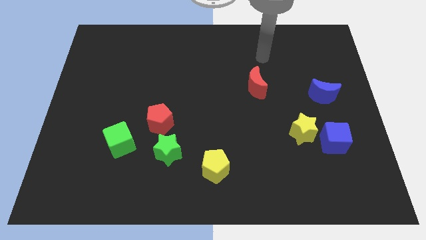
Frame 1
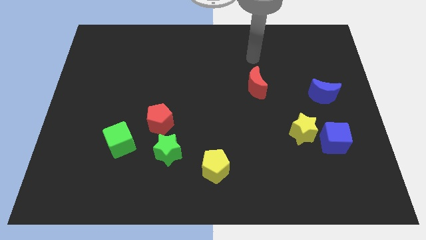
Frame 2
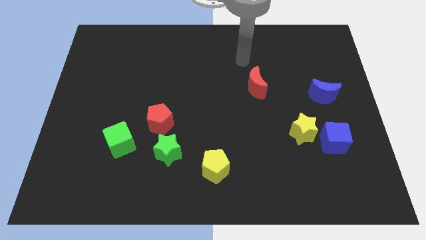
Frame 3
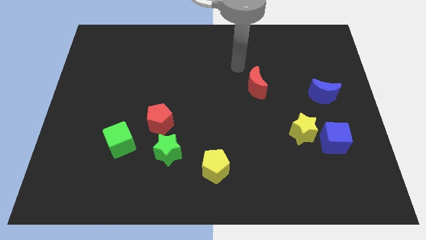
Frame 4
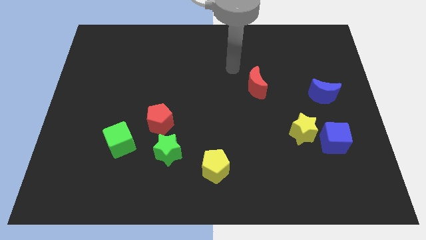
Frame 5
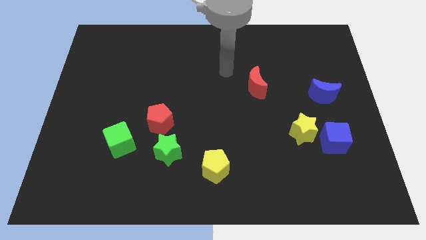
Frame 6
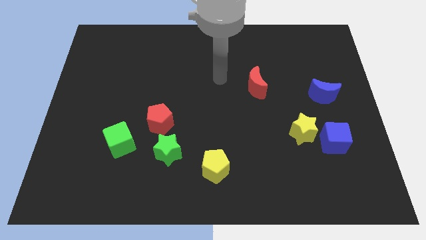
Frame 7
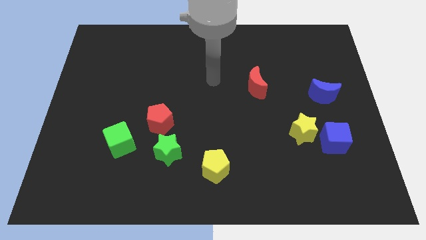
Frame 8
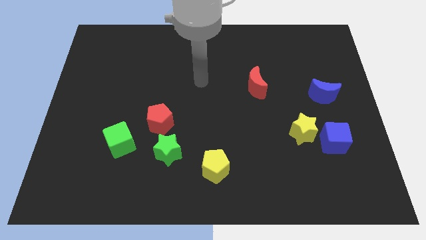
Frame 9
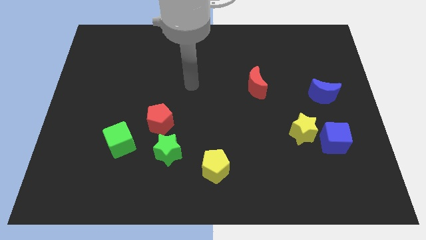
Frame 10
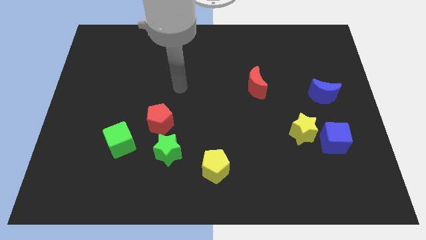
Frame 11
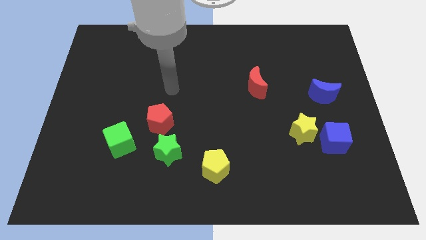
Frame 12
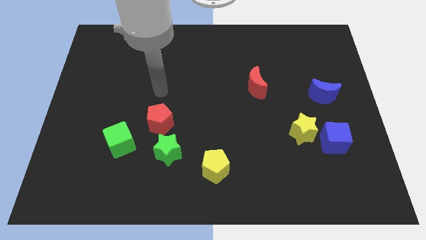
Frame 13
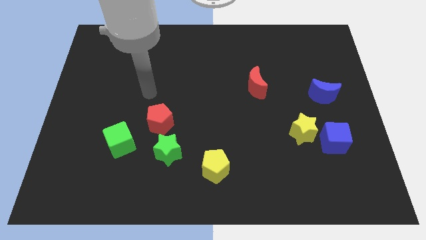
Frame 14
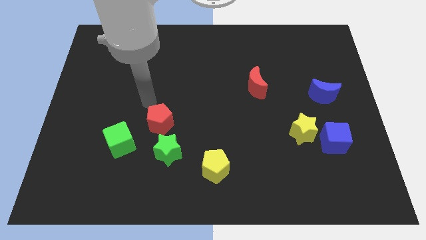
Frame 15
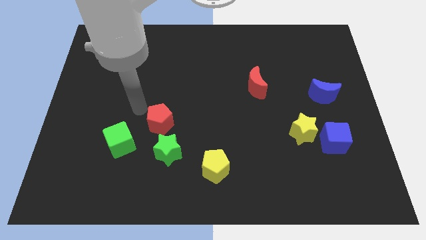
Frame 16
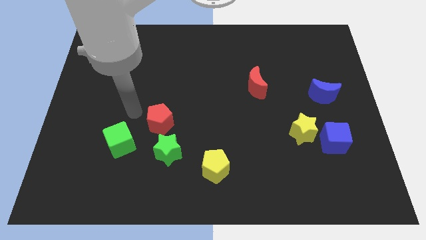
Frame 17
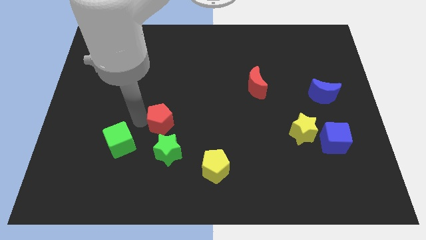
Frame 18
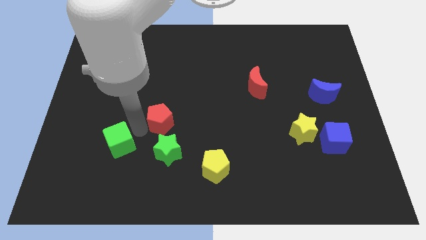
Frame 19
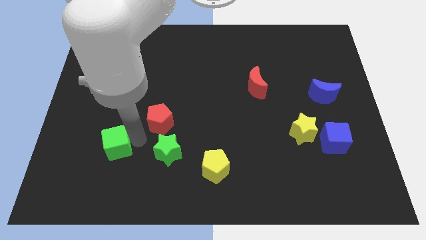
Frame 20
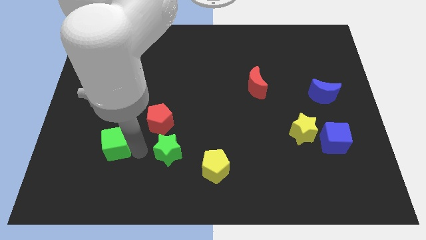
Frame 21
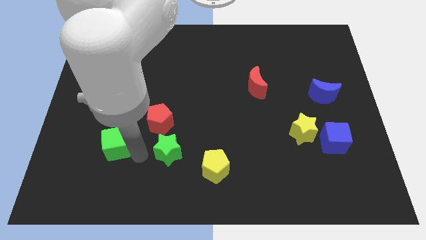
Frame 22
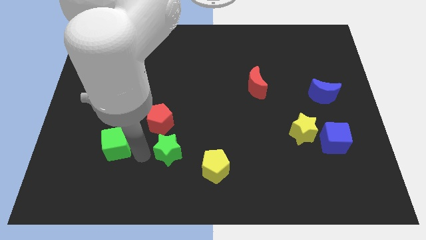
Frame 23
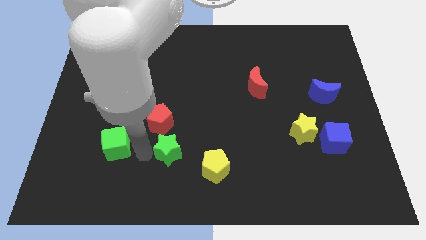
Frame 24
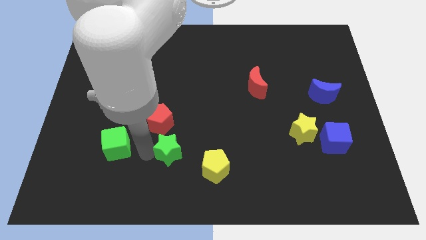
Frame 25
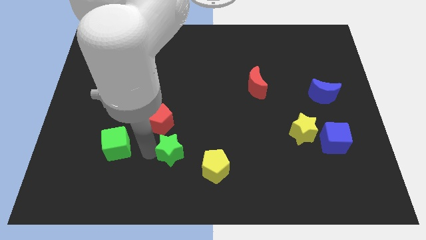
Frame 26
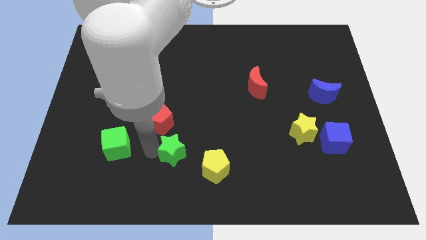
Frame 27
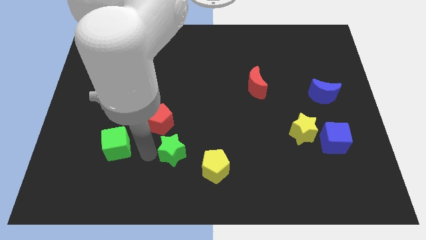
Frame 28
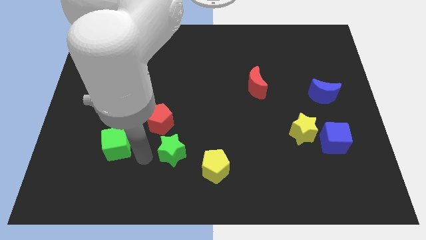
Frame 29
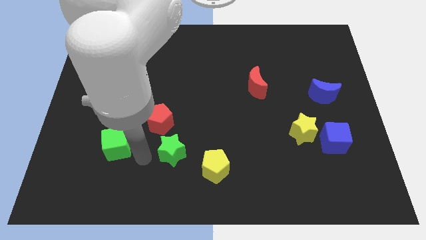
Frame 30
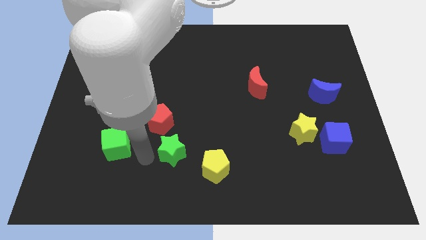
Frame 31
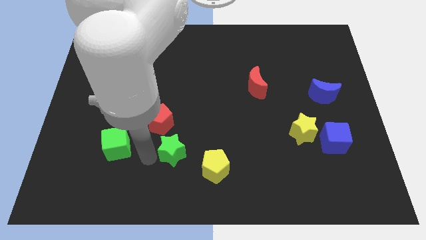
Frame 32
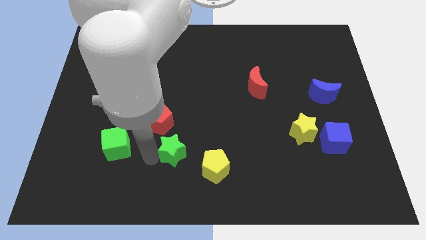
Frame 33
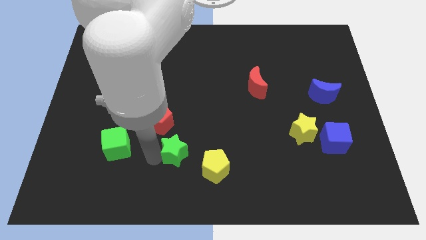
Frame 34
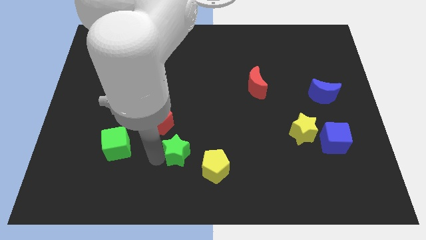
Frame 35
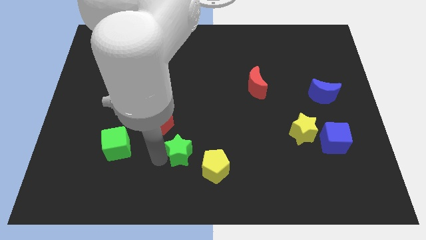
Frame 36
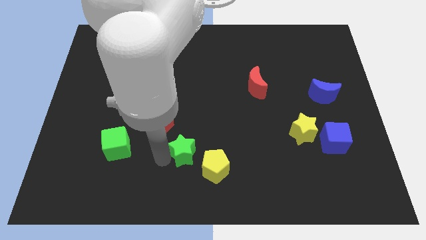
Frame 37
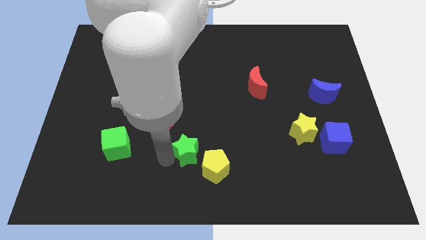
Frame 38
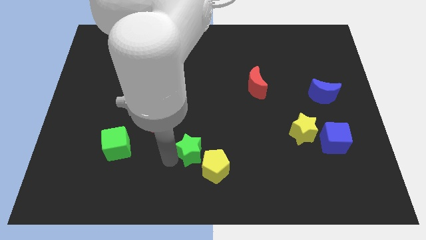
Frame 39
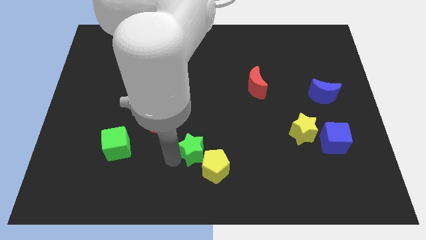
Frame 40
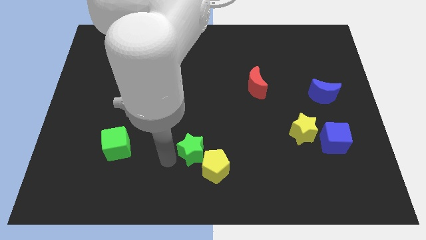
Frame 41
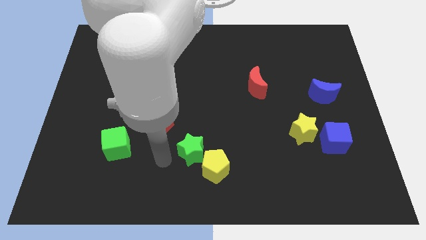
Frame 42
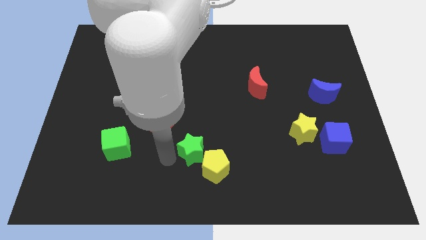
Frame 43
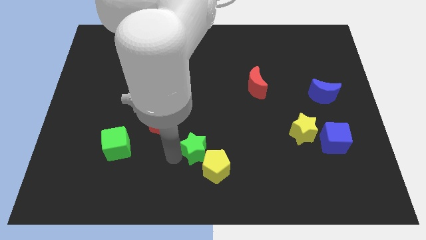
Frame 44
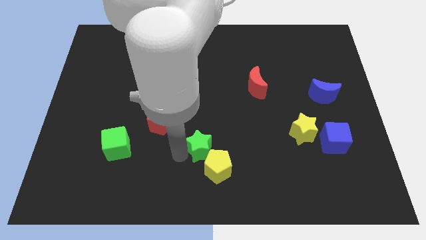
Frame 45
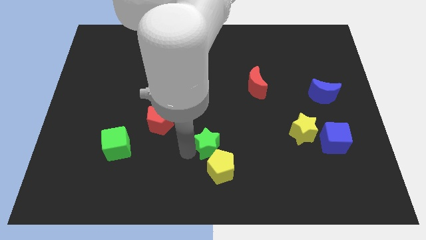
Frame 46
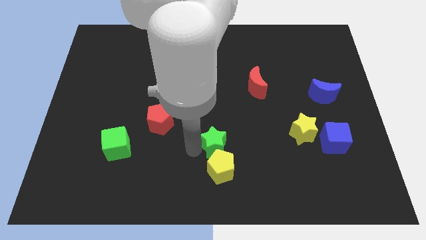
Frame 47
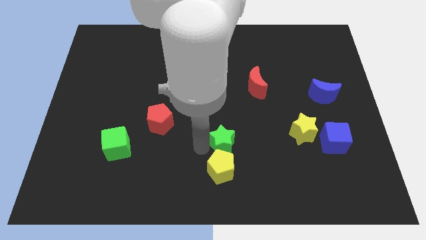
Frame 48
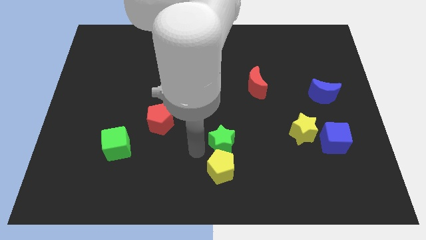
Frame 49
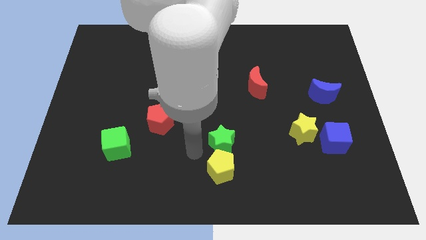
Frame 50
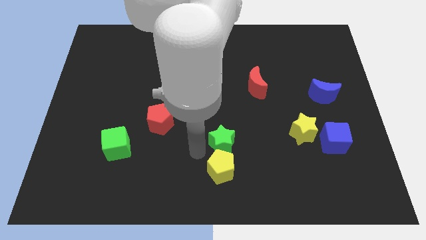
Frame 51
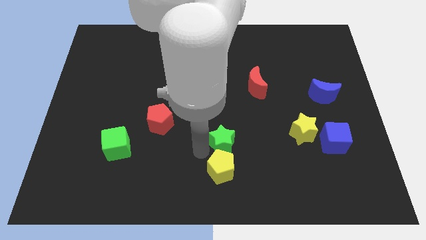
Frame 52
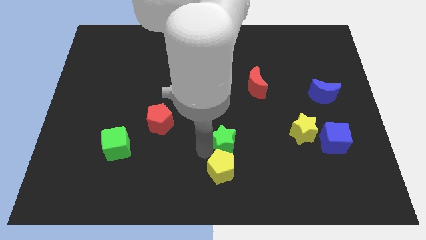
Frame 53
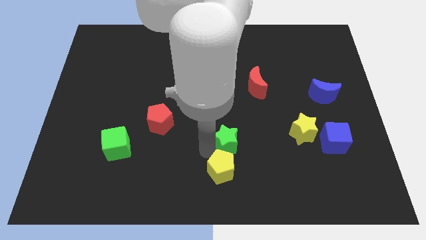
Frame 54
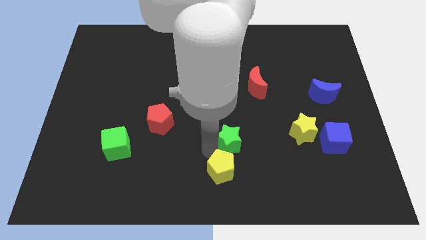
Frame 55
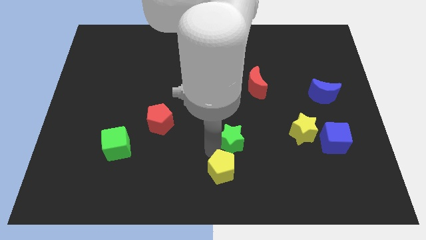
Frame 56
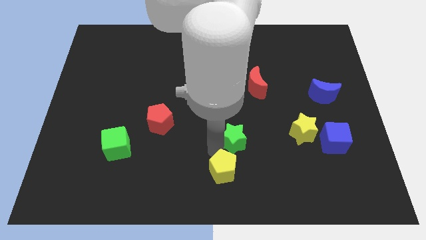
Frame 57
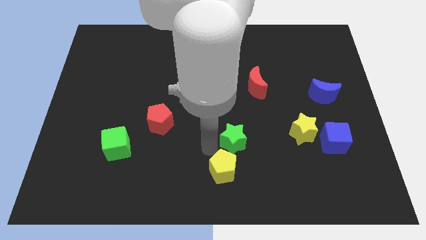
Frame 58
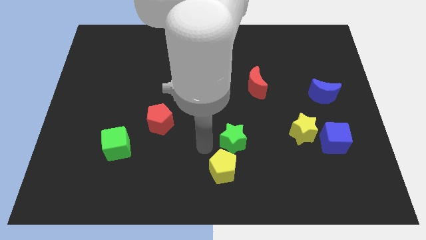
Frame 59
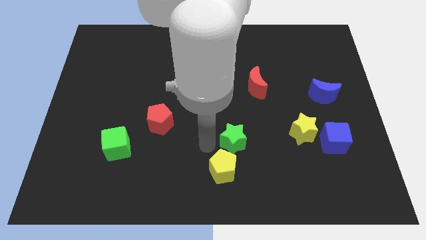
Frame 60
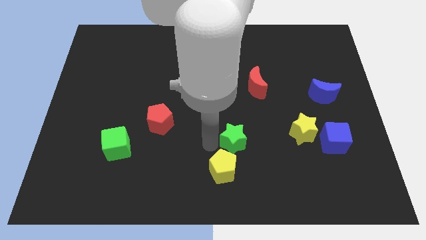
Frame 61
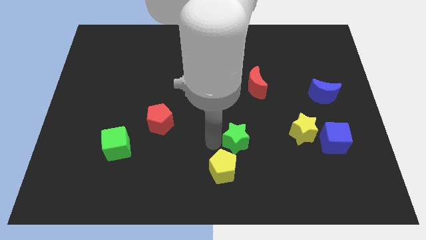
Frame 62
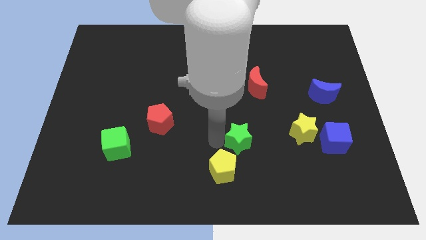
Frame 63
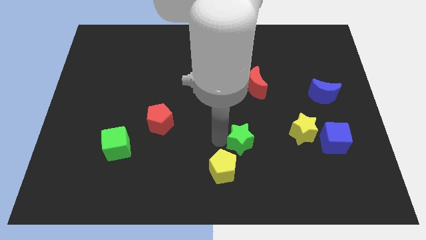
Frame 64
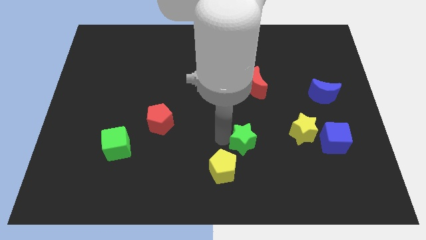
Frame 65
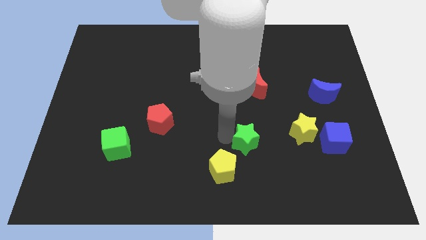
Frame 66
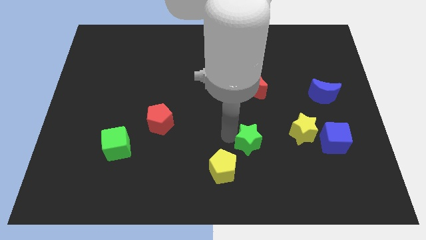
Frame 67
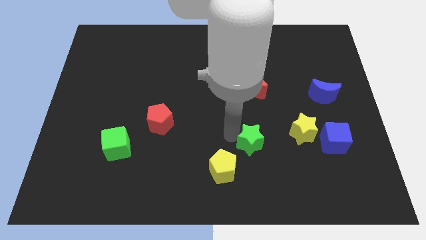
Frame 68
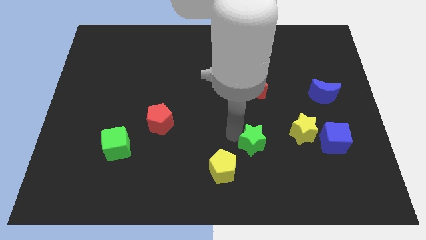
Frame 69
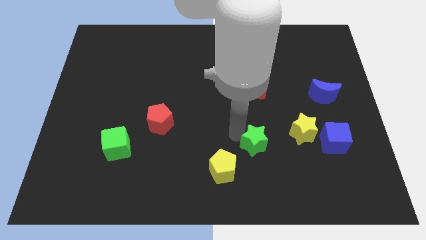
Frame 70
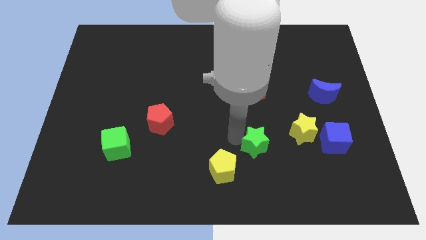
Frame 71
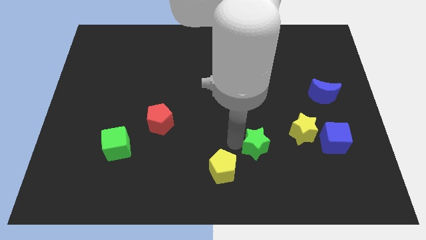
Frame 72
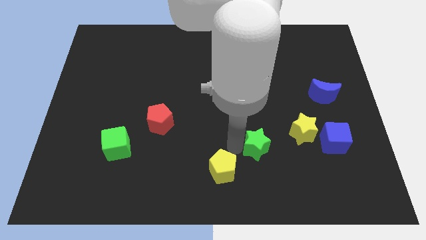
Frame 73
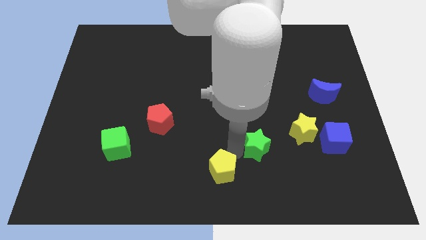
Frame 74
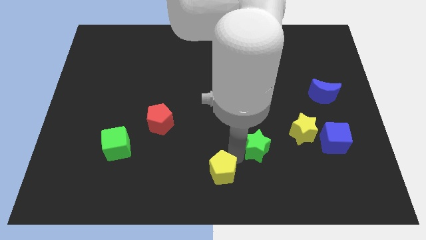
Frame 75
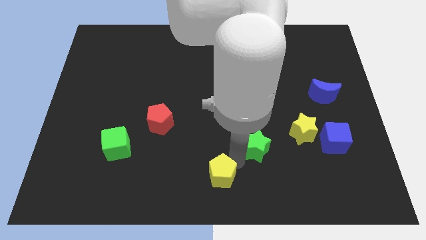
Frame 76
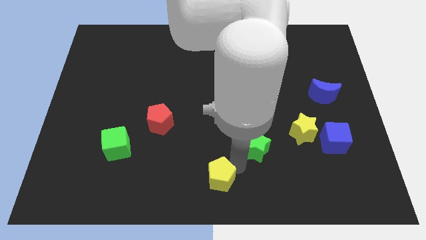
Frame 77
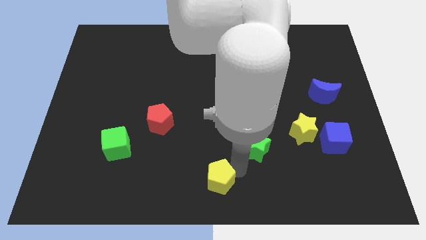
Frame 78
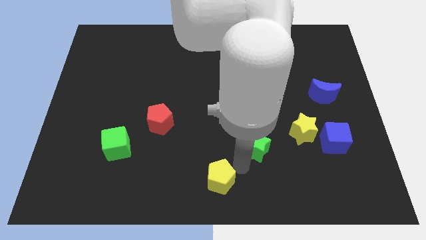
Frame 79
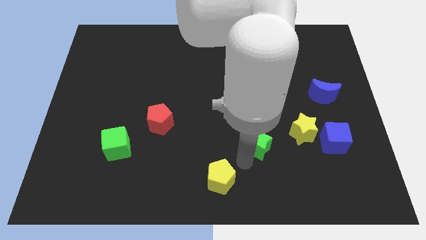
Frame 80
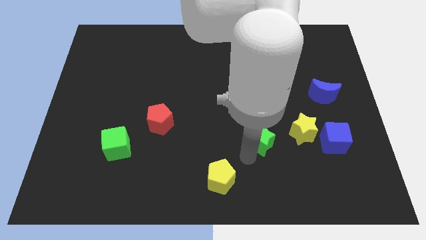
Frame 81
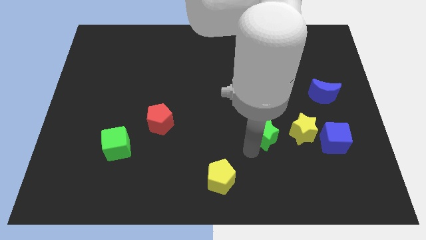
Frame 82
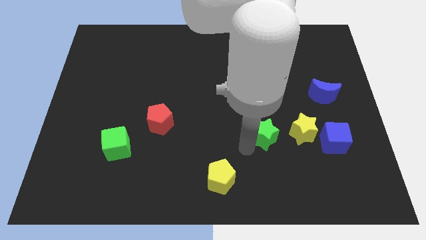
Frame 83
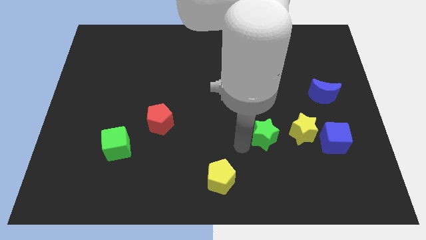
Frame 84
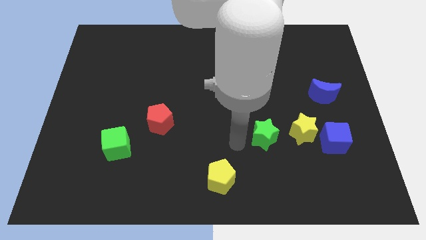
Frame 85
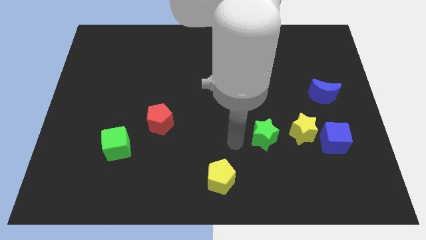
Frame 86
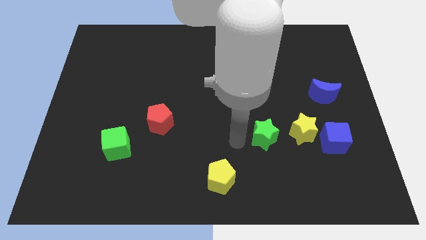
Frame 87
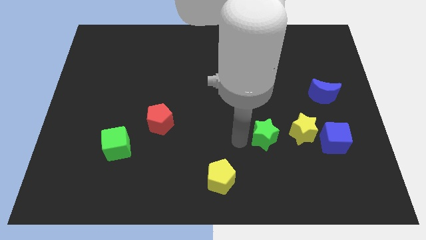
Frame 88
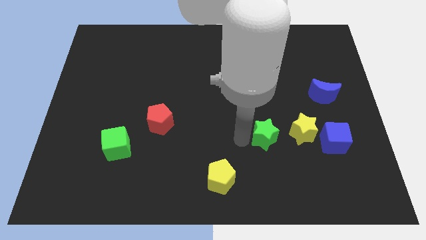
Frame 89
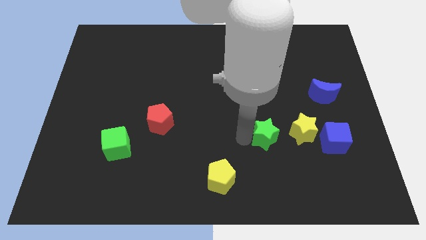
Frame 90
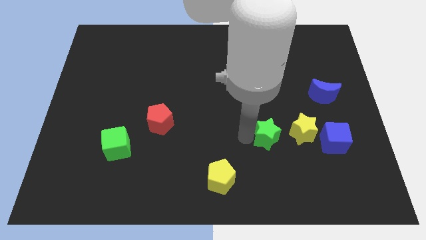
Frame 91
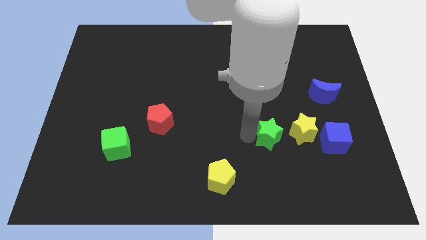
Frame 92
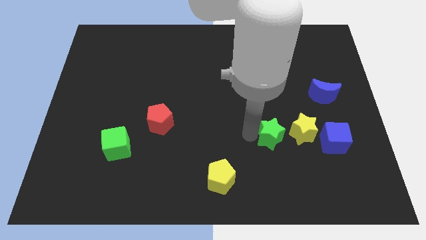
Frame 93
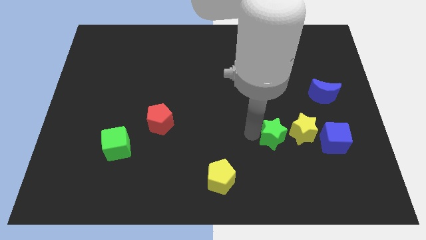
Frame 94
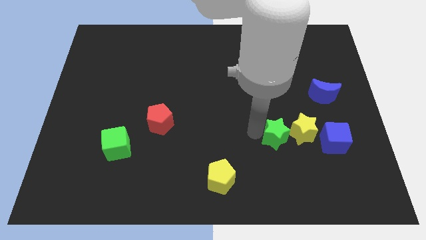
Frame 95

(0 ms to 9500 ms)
put the green star towards the yellow star
